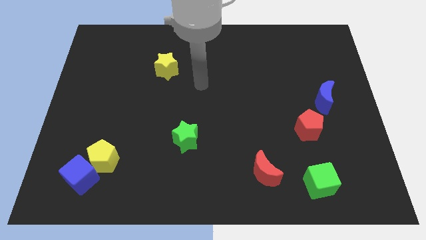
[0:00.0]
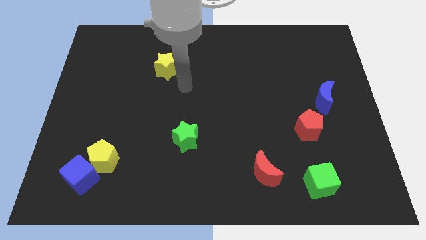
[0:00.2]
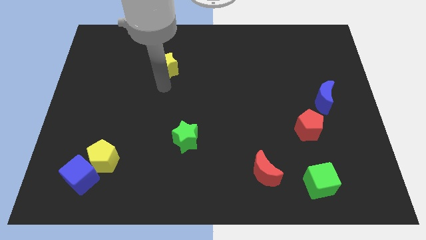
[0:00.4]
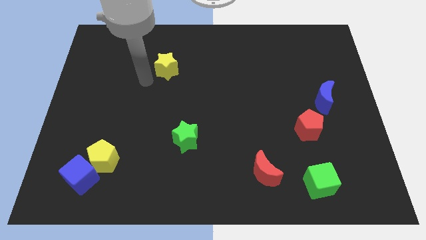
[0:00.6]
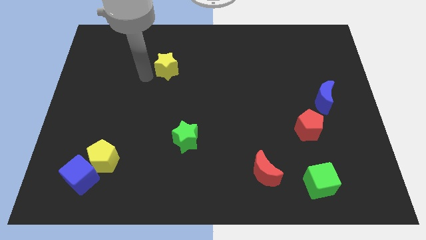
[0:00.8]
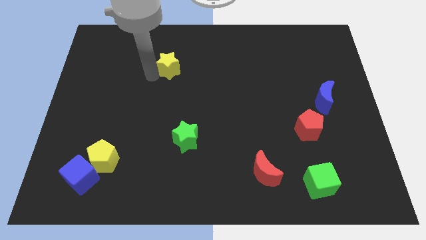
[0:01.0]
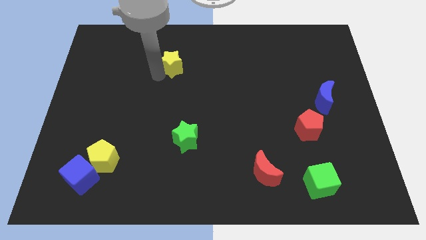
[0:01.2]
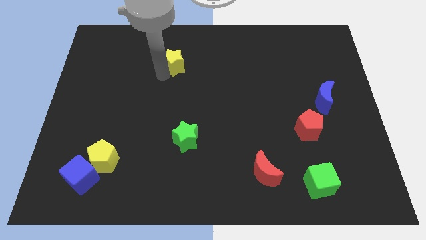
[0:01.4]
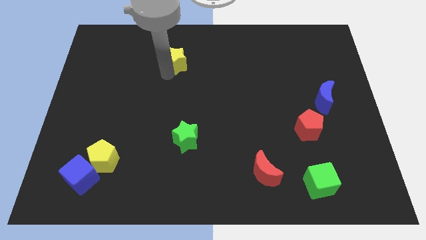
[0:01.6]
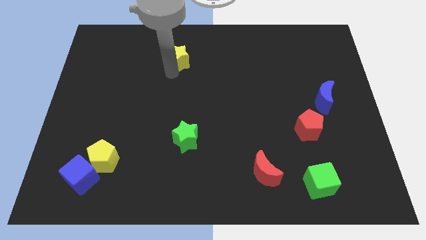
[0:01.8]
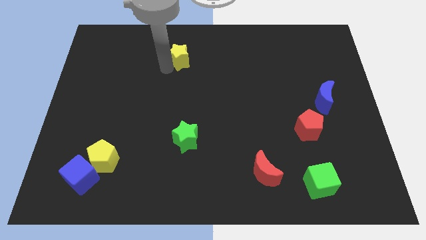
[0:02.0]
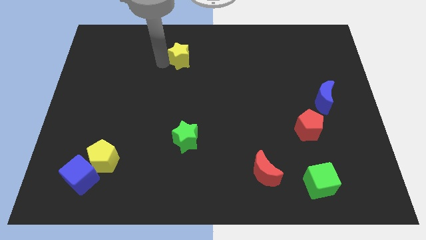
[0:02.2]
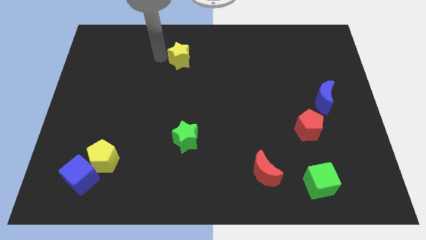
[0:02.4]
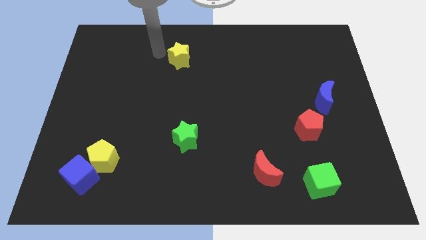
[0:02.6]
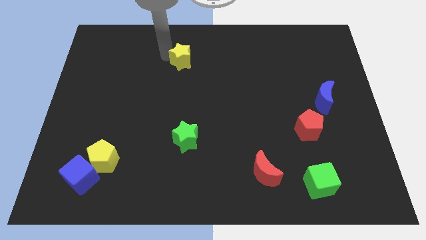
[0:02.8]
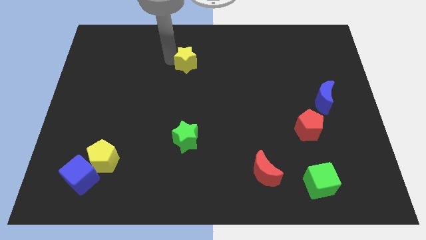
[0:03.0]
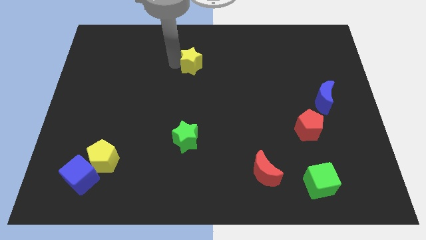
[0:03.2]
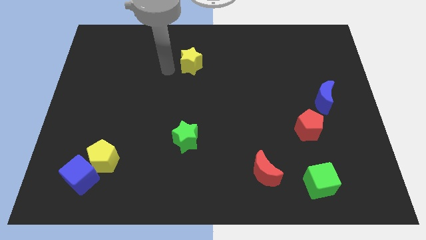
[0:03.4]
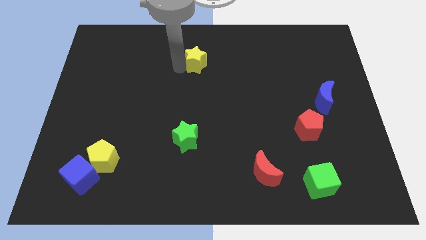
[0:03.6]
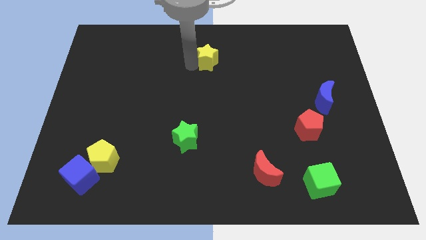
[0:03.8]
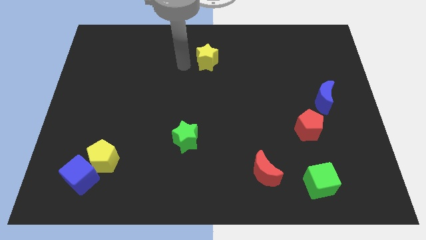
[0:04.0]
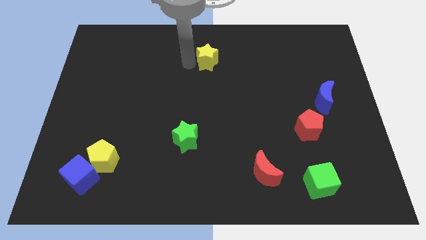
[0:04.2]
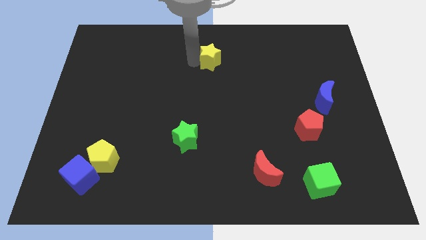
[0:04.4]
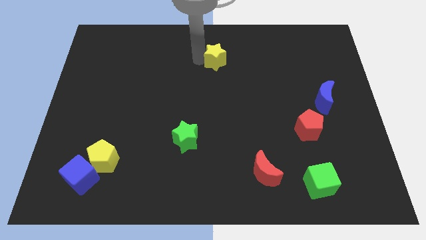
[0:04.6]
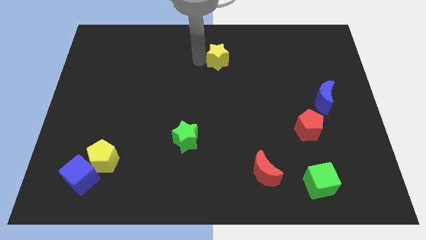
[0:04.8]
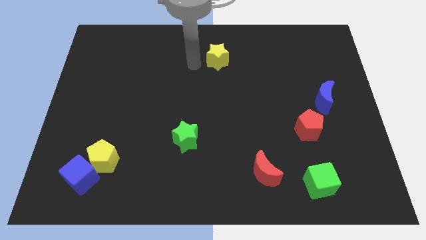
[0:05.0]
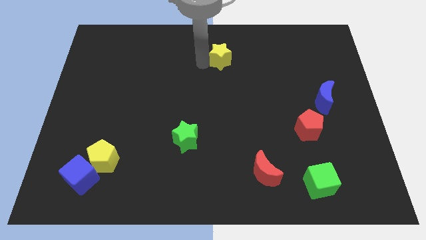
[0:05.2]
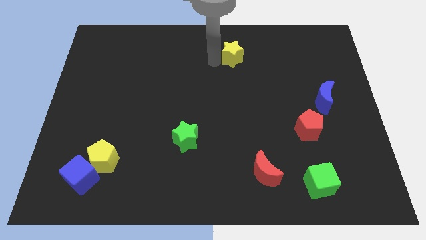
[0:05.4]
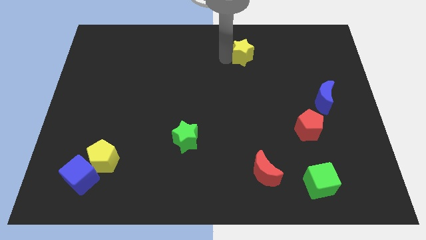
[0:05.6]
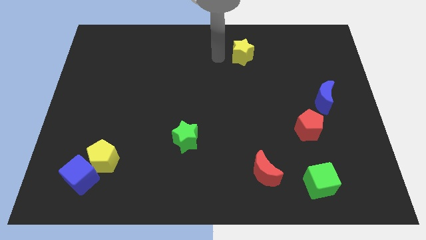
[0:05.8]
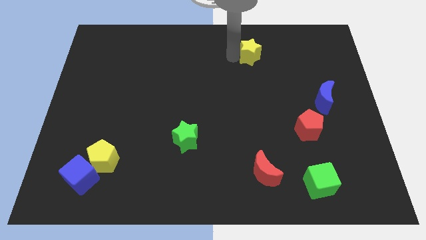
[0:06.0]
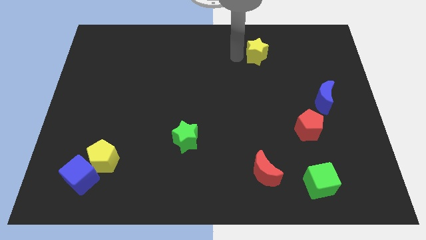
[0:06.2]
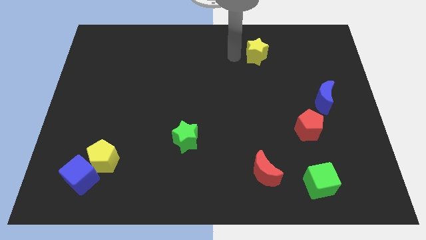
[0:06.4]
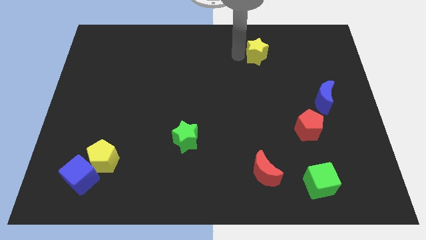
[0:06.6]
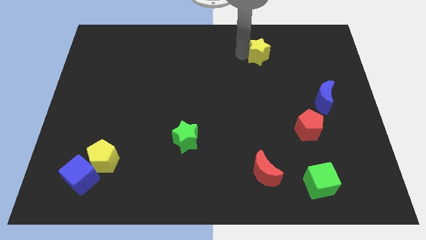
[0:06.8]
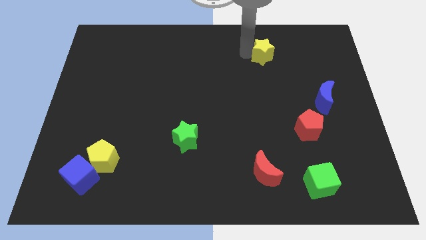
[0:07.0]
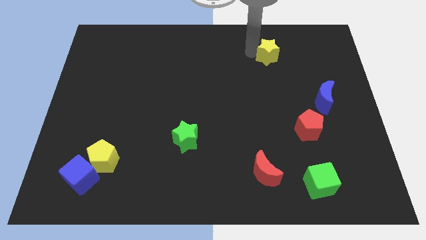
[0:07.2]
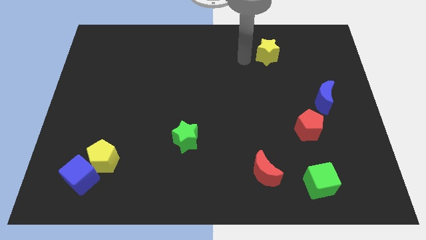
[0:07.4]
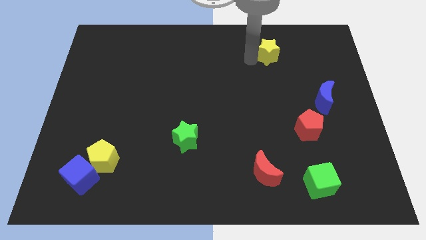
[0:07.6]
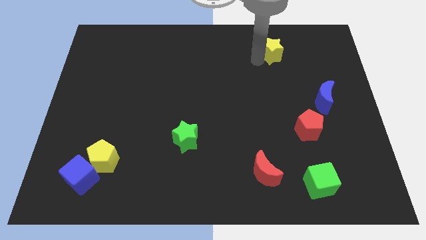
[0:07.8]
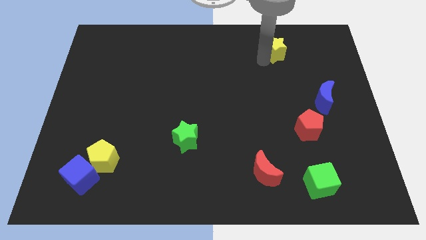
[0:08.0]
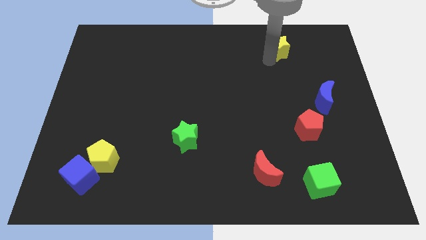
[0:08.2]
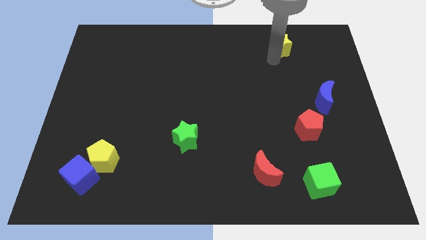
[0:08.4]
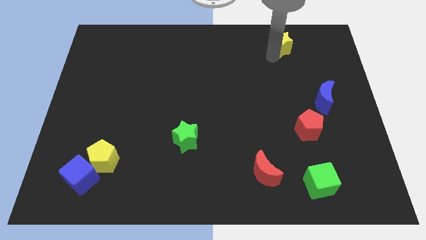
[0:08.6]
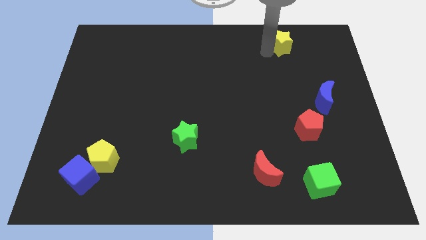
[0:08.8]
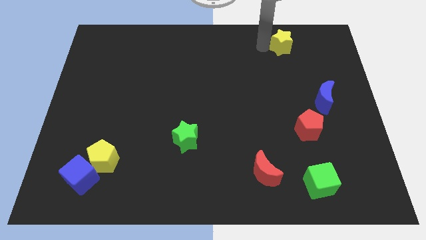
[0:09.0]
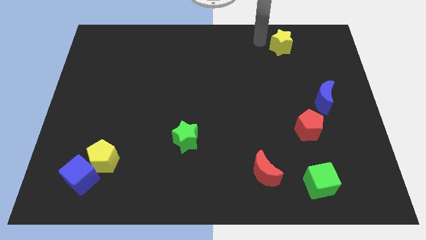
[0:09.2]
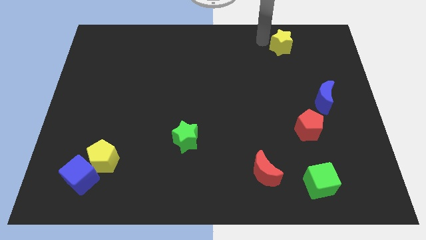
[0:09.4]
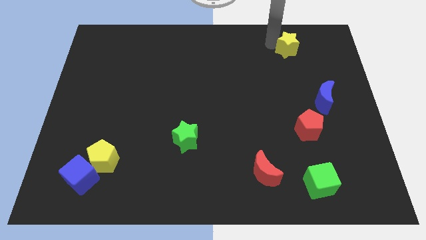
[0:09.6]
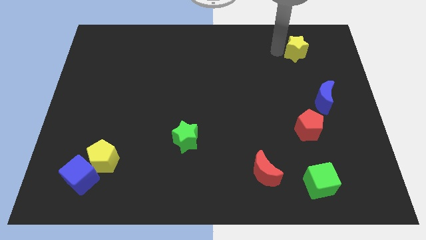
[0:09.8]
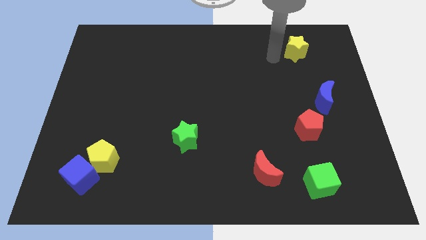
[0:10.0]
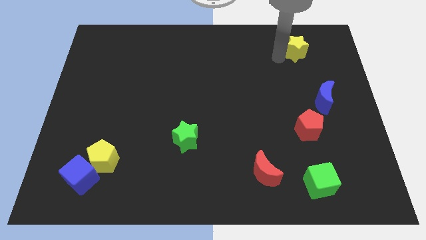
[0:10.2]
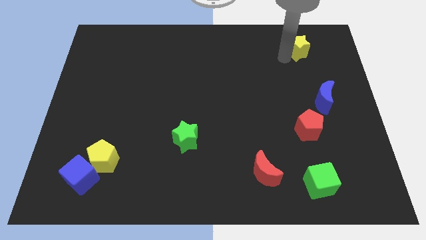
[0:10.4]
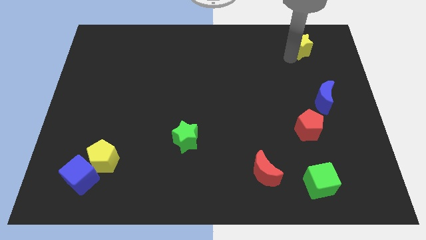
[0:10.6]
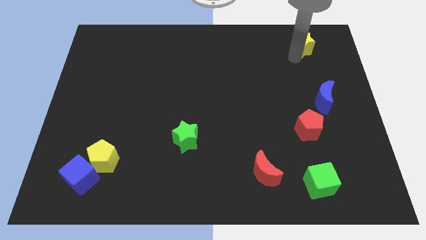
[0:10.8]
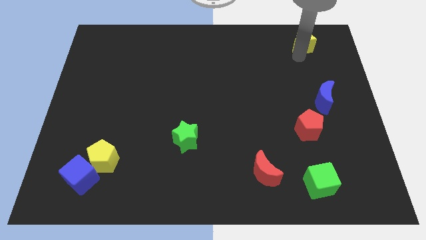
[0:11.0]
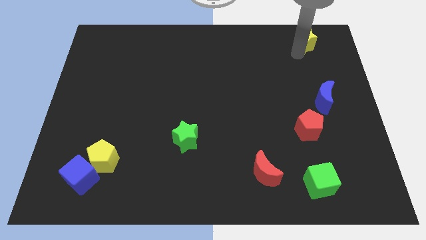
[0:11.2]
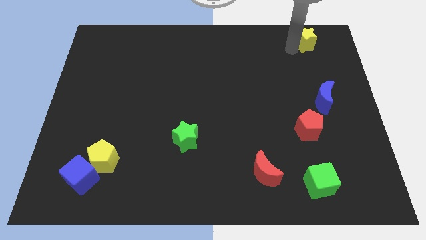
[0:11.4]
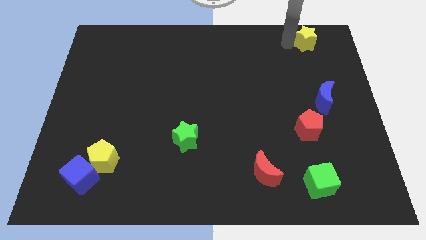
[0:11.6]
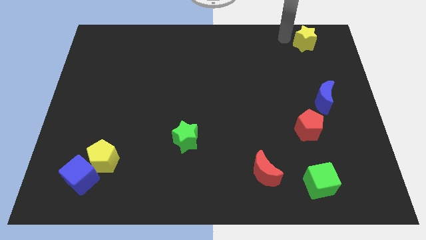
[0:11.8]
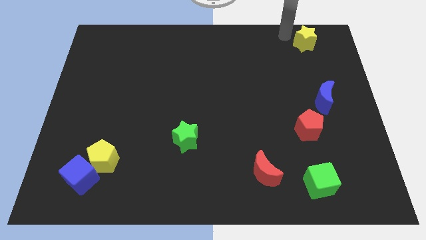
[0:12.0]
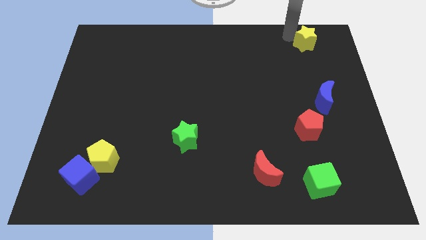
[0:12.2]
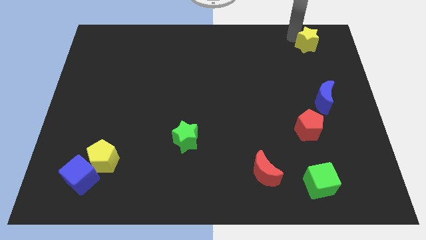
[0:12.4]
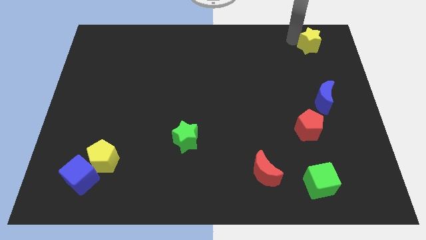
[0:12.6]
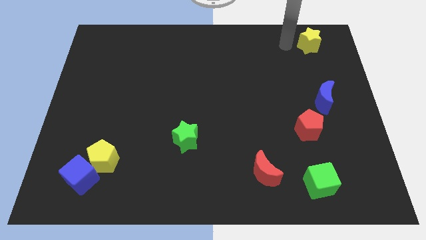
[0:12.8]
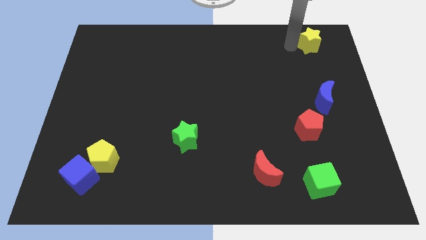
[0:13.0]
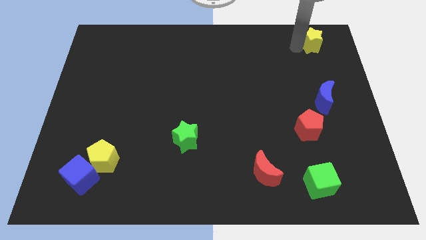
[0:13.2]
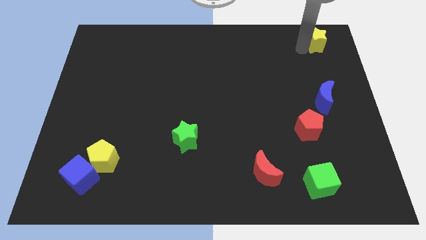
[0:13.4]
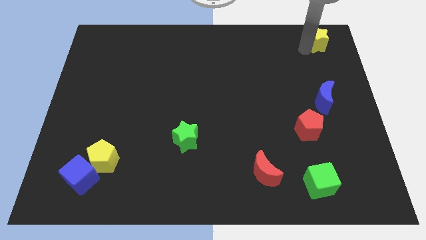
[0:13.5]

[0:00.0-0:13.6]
move the yellow star to the top right corner

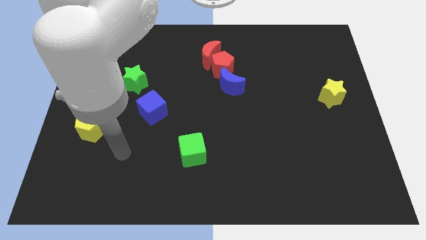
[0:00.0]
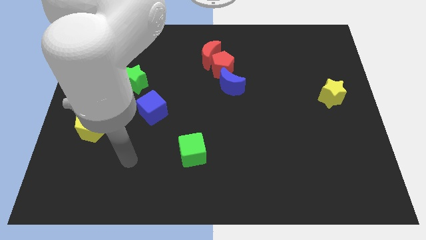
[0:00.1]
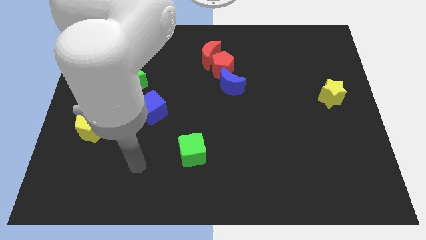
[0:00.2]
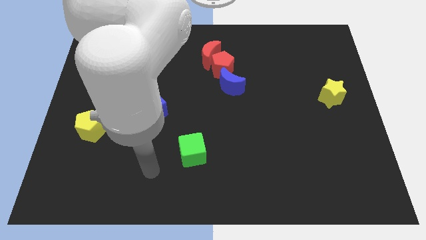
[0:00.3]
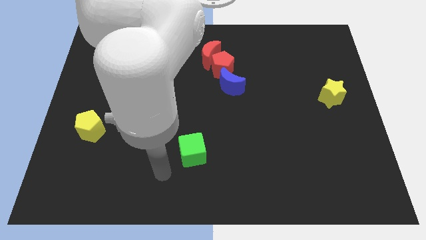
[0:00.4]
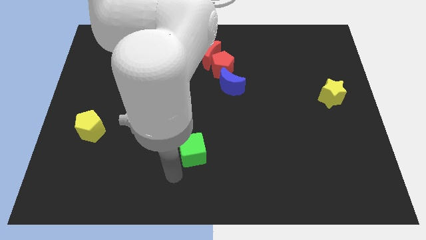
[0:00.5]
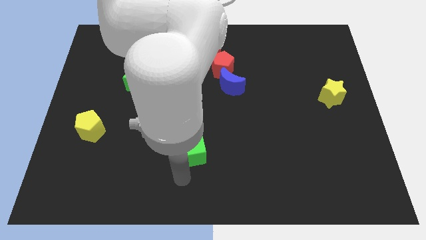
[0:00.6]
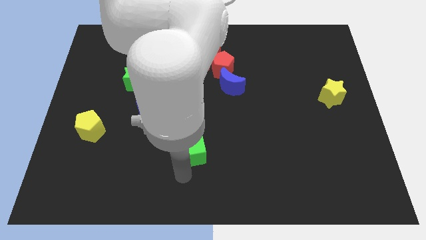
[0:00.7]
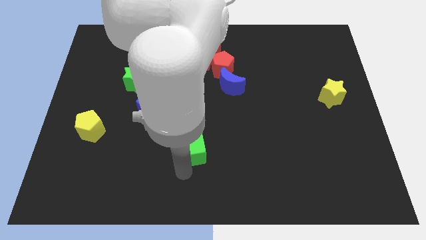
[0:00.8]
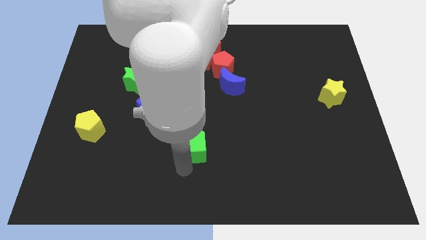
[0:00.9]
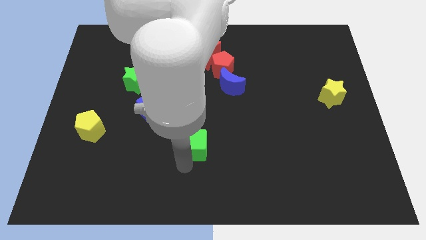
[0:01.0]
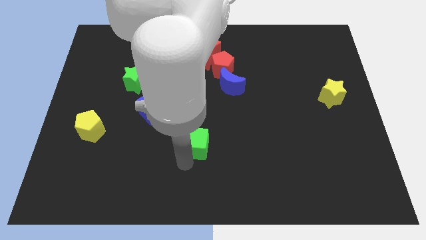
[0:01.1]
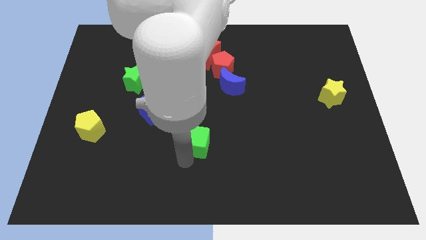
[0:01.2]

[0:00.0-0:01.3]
move the green cube to the middle of the board
